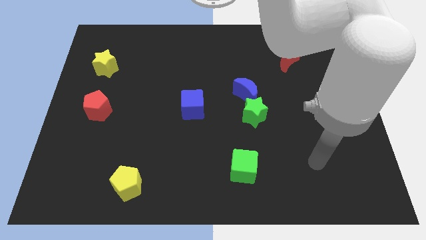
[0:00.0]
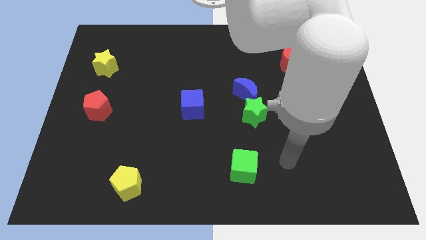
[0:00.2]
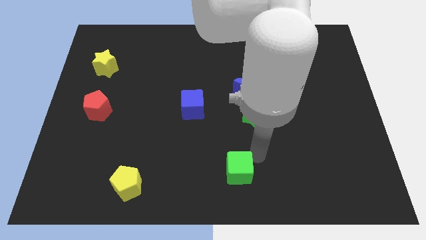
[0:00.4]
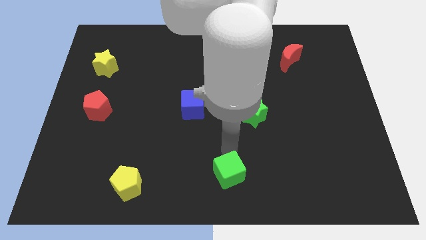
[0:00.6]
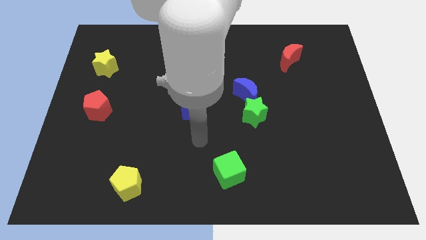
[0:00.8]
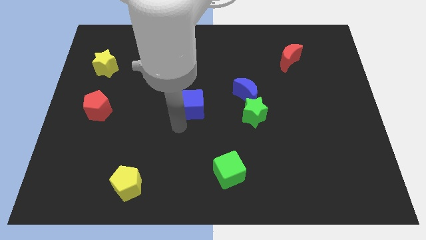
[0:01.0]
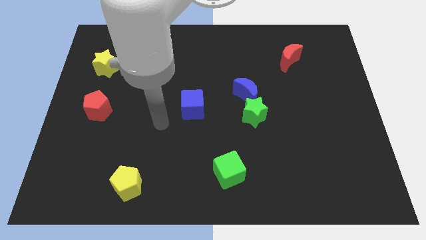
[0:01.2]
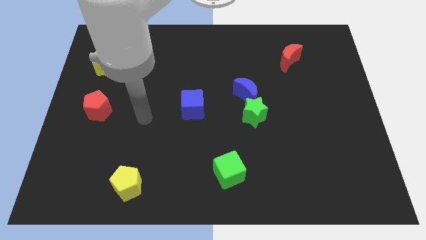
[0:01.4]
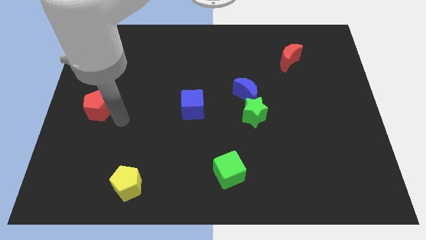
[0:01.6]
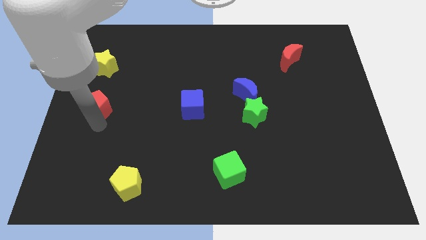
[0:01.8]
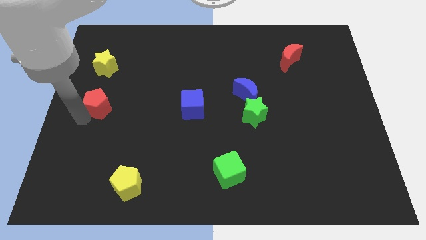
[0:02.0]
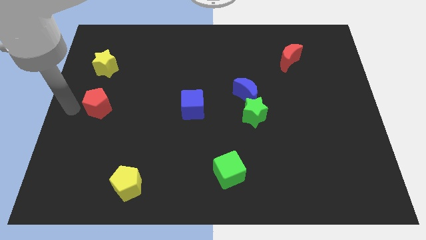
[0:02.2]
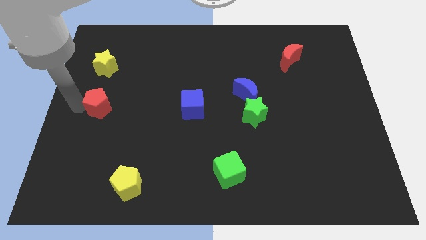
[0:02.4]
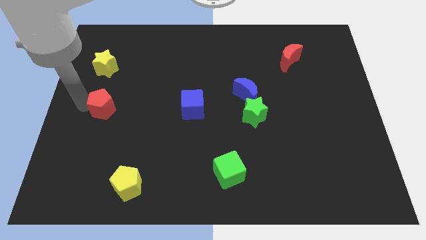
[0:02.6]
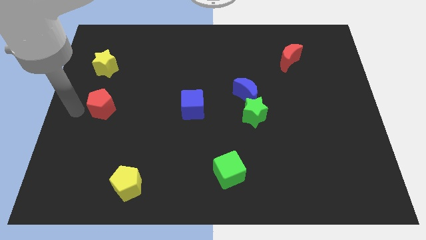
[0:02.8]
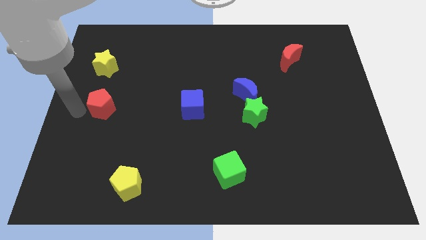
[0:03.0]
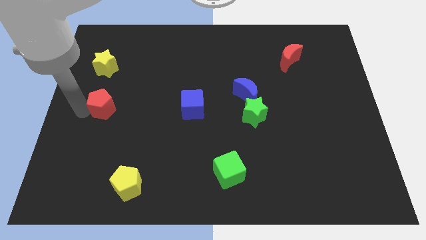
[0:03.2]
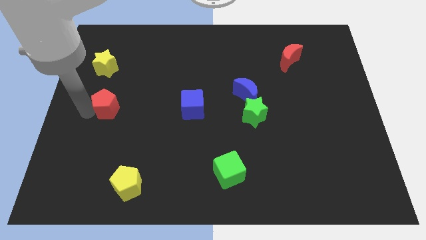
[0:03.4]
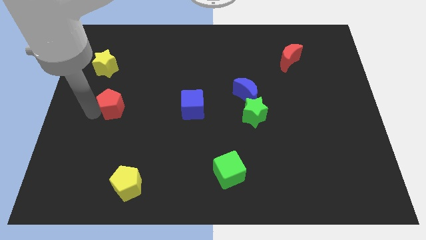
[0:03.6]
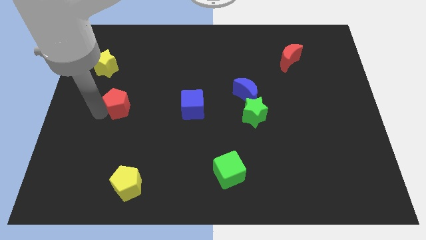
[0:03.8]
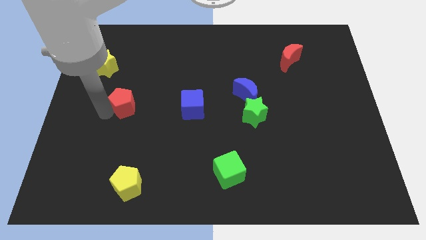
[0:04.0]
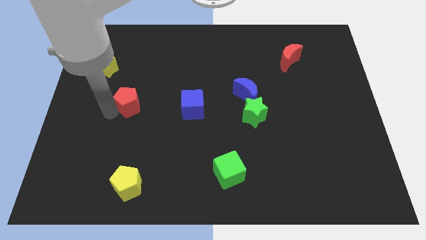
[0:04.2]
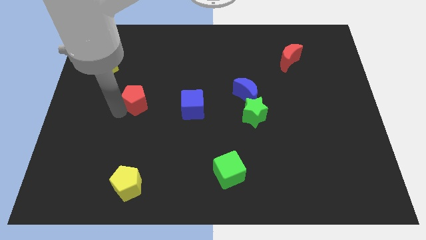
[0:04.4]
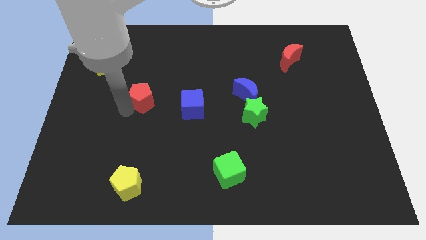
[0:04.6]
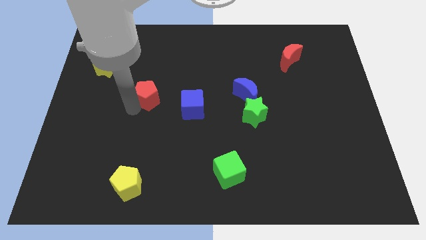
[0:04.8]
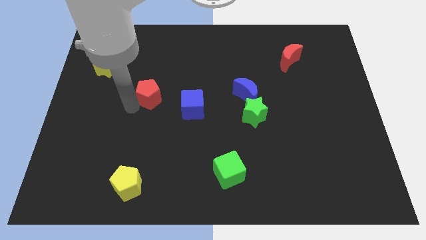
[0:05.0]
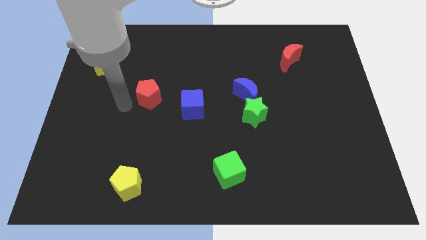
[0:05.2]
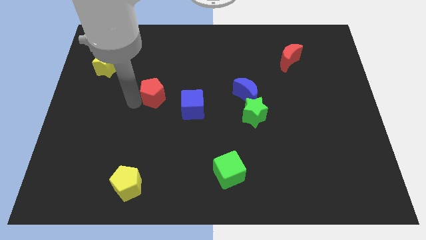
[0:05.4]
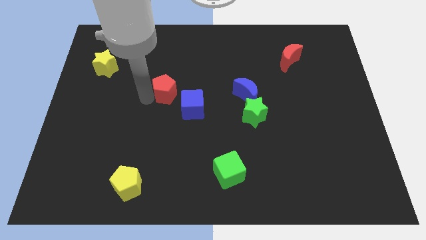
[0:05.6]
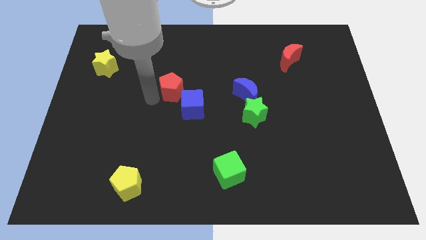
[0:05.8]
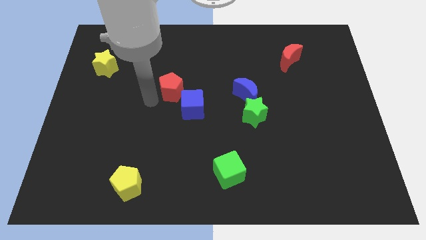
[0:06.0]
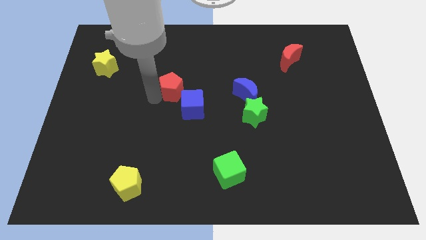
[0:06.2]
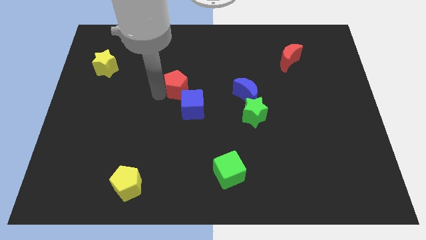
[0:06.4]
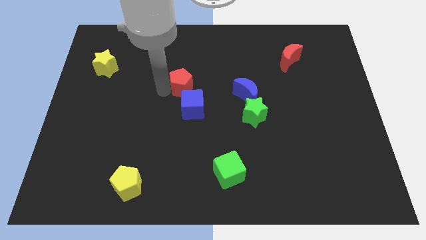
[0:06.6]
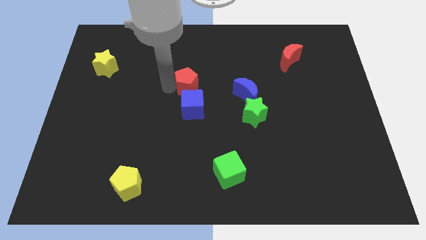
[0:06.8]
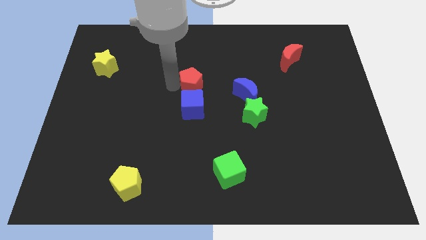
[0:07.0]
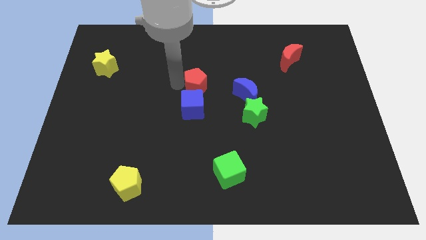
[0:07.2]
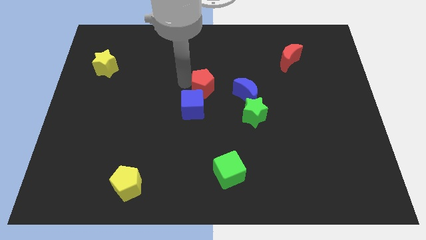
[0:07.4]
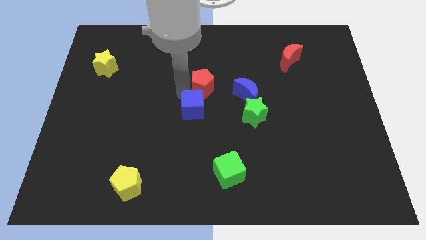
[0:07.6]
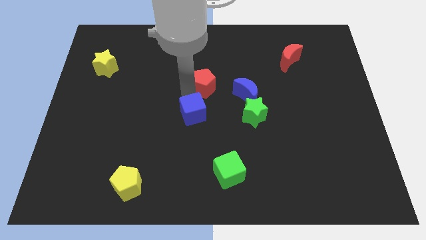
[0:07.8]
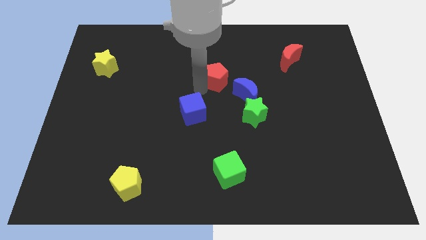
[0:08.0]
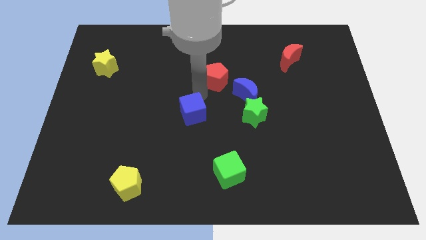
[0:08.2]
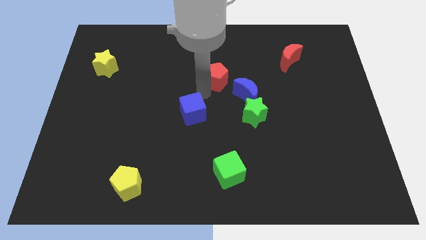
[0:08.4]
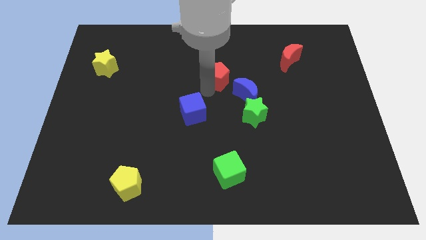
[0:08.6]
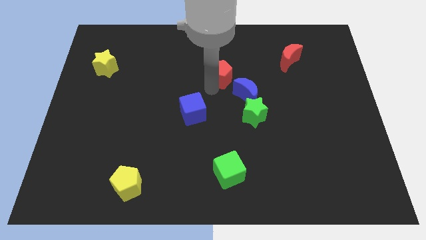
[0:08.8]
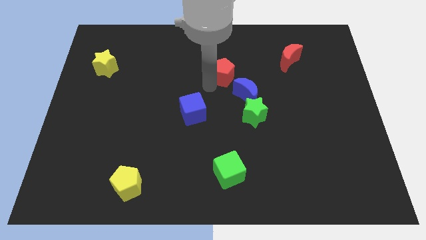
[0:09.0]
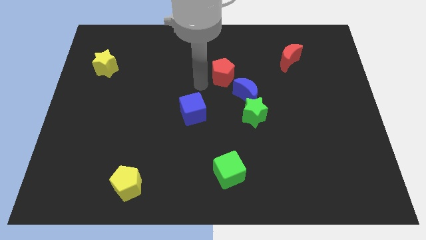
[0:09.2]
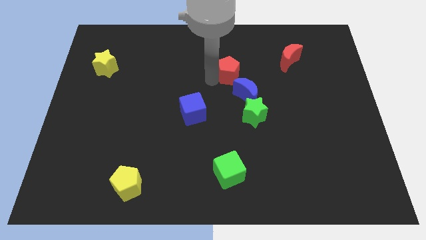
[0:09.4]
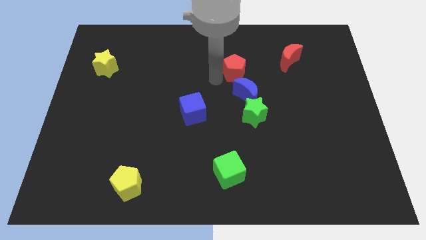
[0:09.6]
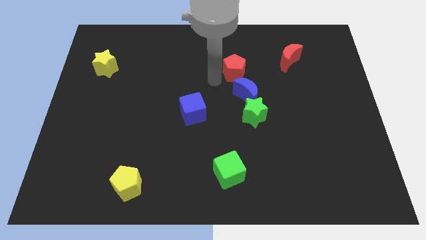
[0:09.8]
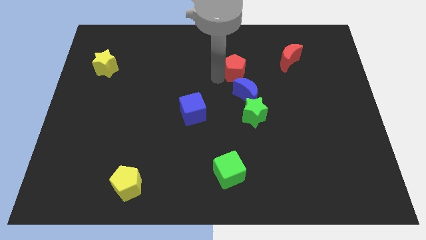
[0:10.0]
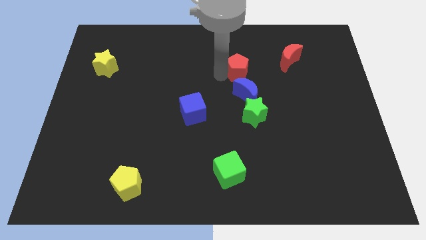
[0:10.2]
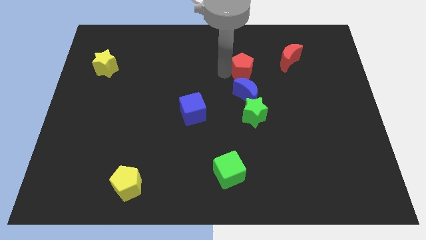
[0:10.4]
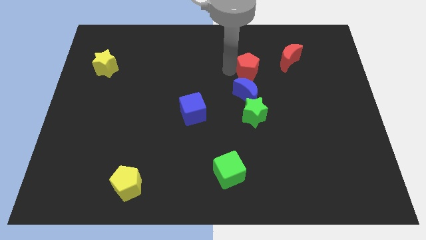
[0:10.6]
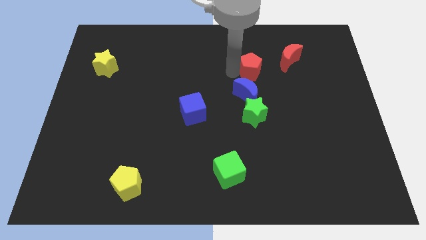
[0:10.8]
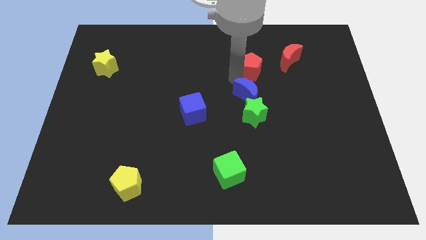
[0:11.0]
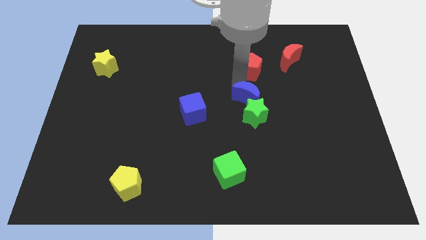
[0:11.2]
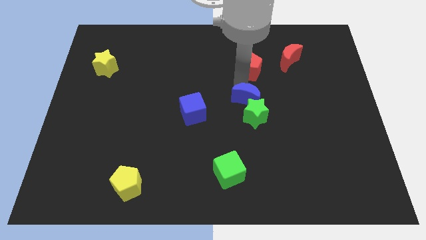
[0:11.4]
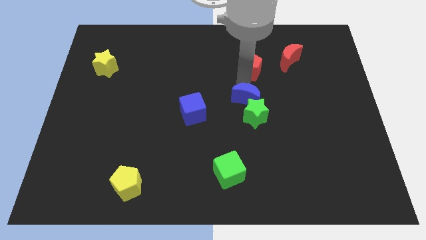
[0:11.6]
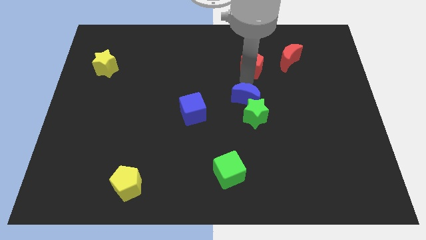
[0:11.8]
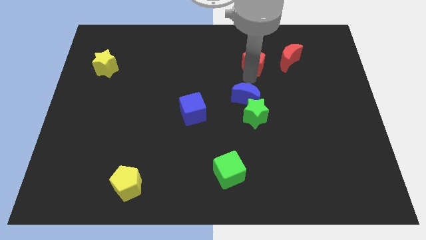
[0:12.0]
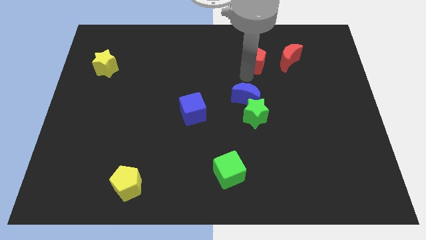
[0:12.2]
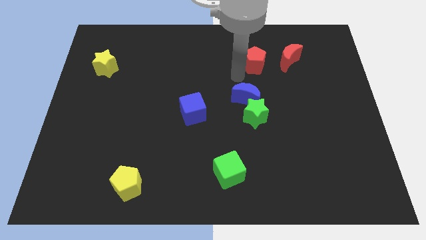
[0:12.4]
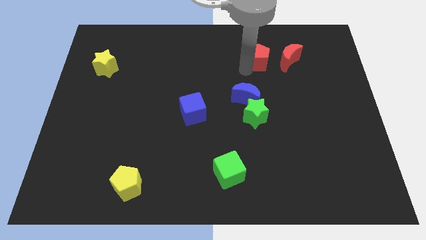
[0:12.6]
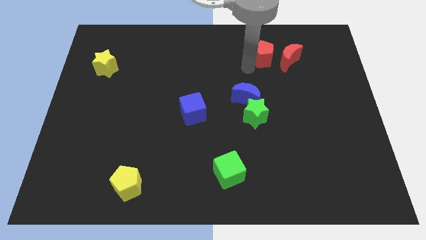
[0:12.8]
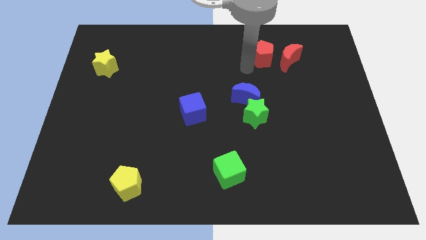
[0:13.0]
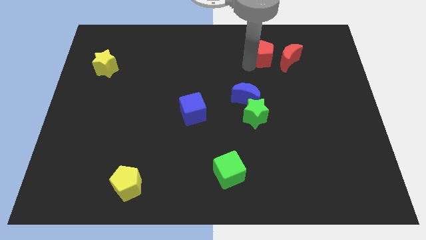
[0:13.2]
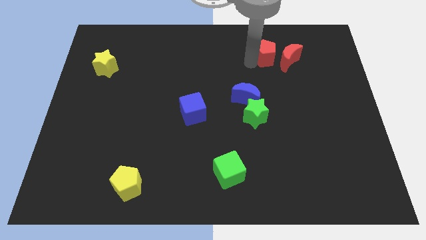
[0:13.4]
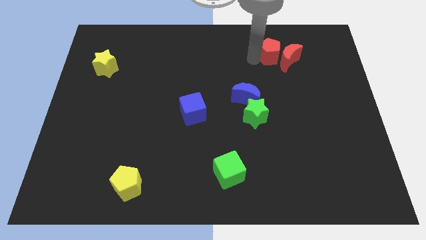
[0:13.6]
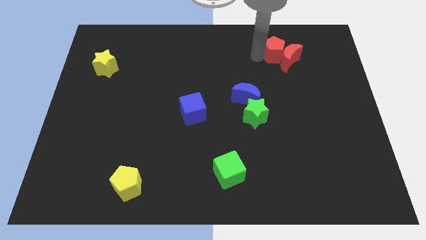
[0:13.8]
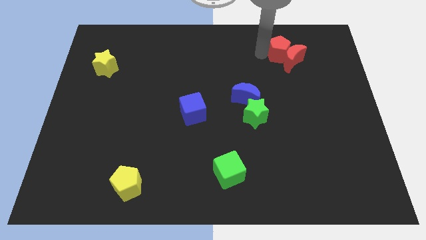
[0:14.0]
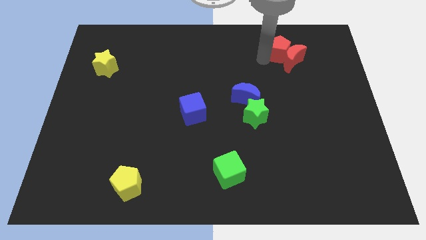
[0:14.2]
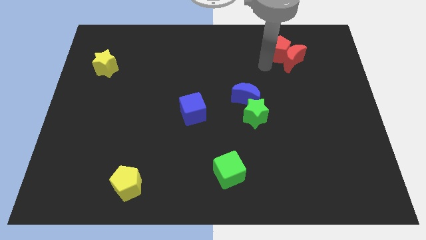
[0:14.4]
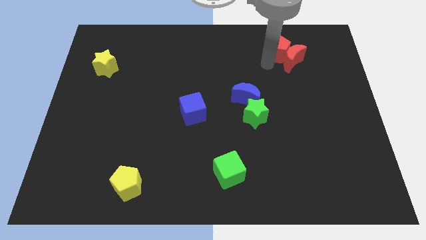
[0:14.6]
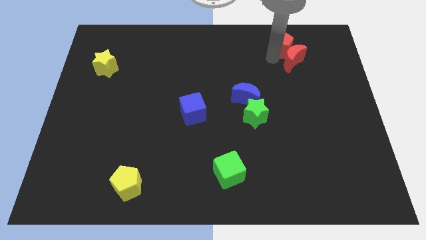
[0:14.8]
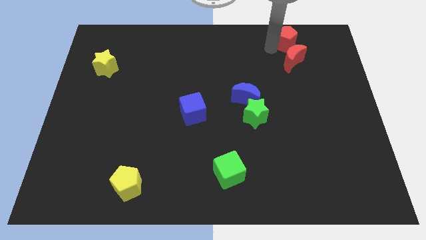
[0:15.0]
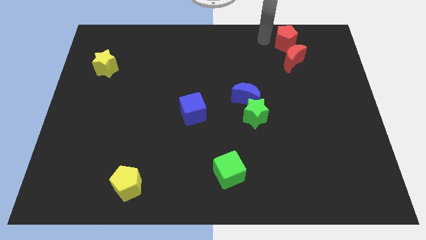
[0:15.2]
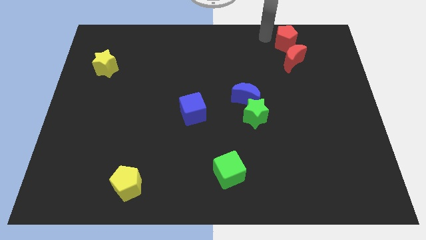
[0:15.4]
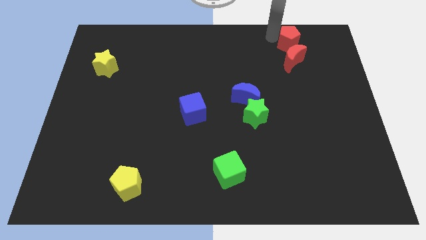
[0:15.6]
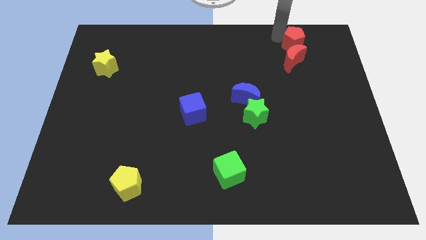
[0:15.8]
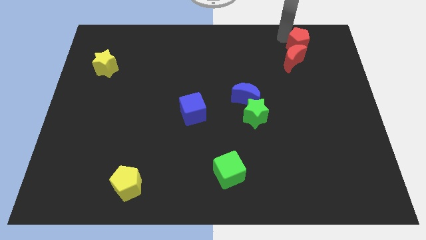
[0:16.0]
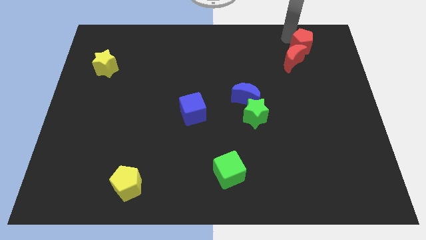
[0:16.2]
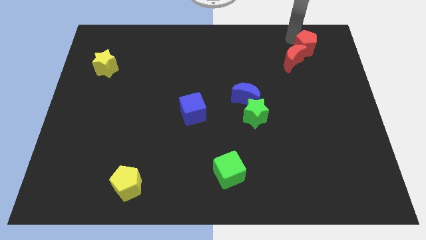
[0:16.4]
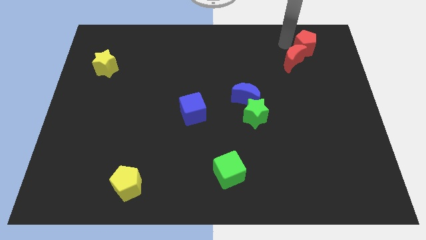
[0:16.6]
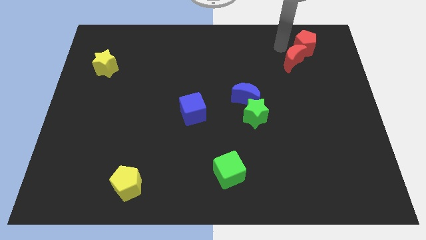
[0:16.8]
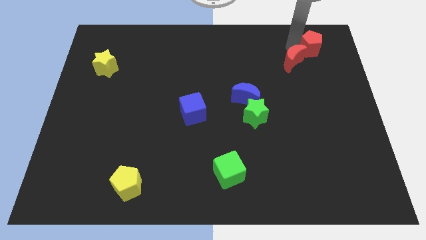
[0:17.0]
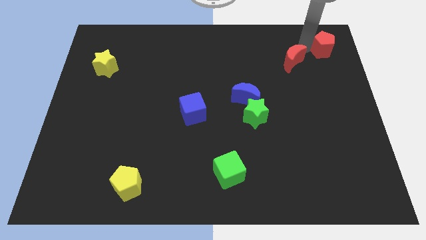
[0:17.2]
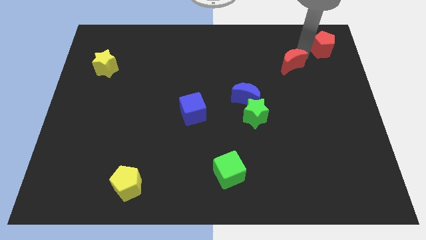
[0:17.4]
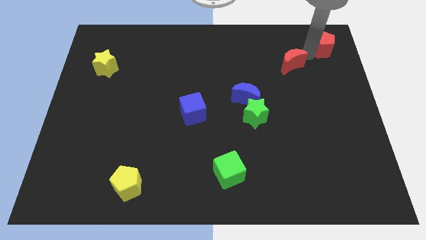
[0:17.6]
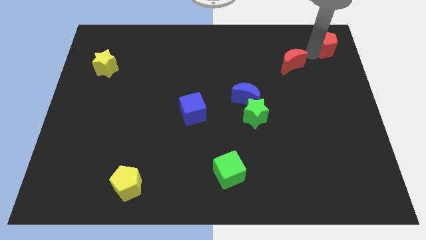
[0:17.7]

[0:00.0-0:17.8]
slide the red pentagon to the upper right corner
